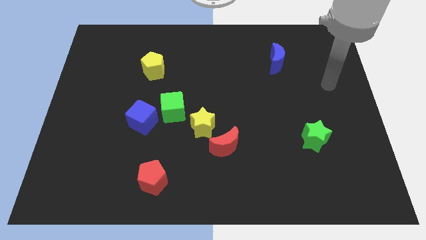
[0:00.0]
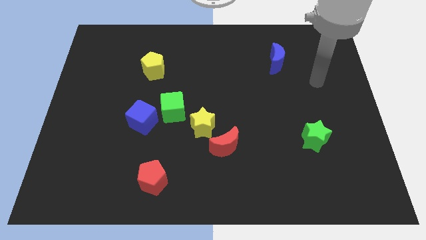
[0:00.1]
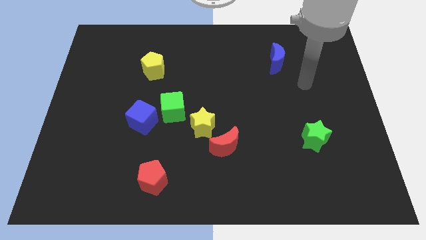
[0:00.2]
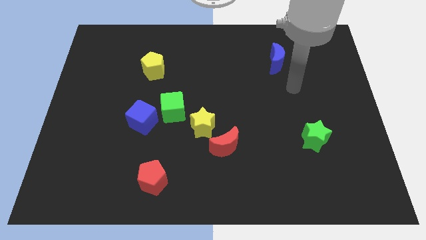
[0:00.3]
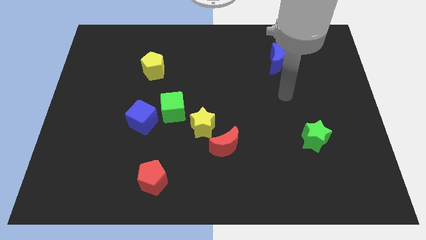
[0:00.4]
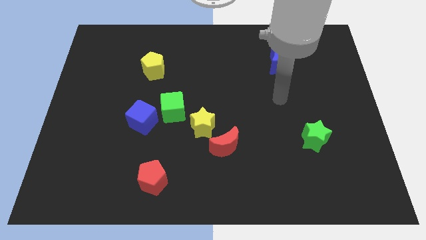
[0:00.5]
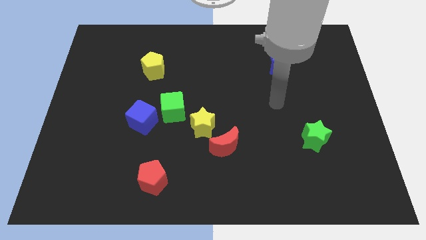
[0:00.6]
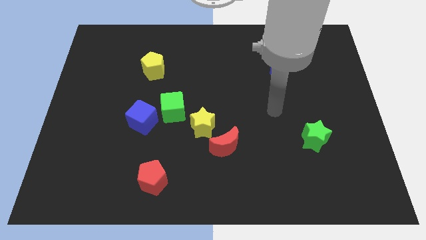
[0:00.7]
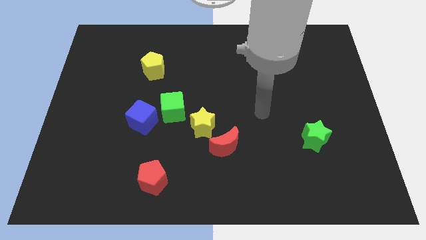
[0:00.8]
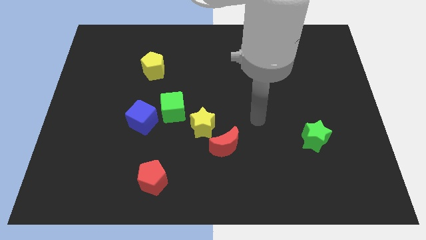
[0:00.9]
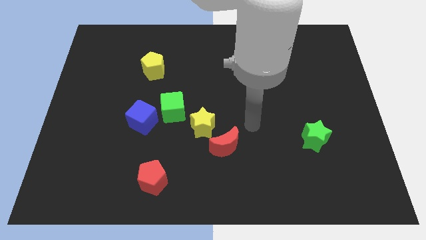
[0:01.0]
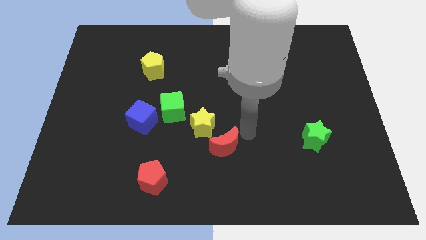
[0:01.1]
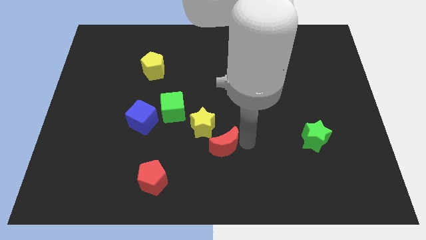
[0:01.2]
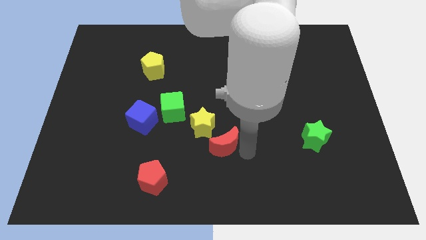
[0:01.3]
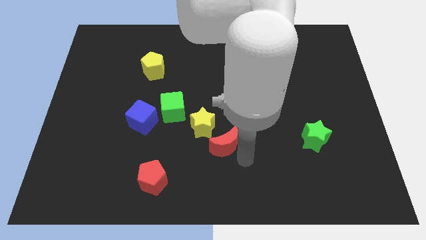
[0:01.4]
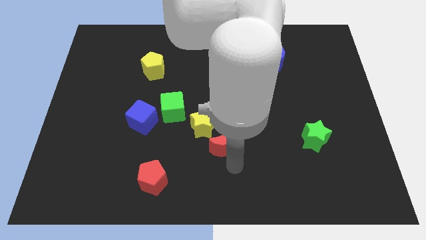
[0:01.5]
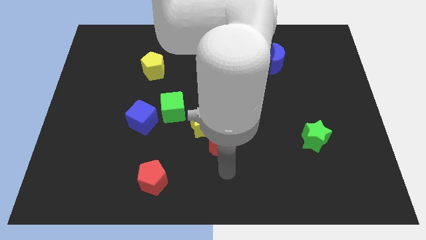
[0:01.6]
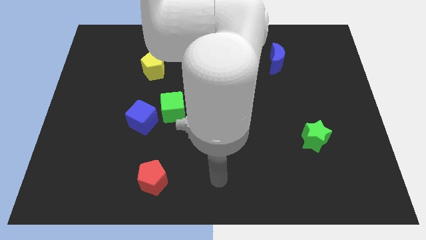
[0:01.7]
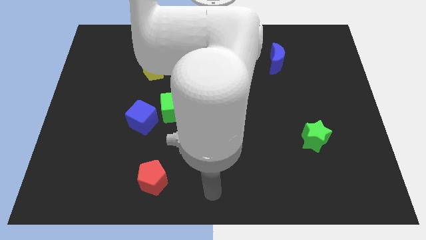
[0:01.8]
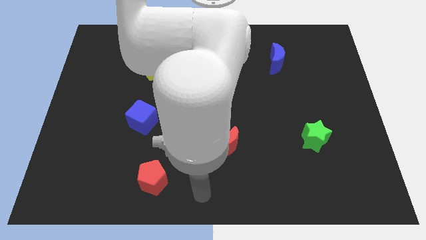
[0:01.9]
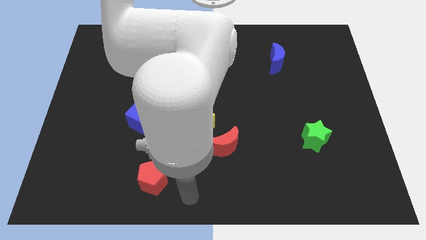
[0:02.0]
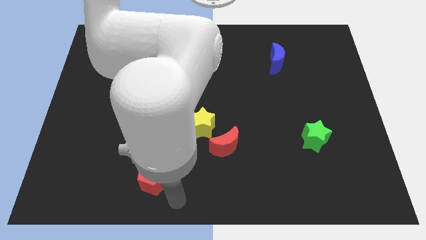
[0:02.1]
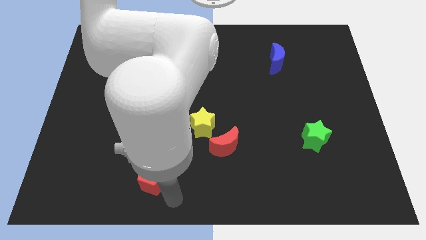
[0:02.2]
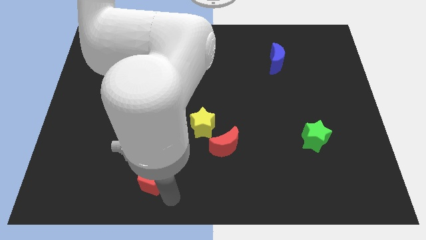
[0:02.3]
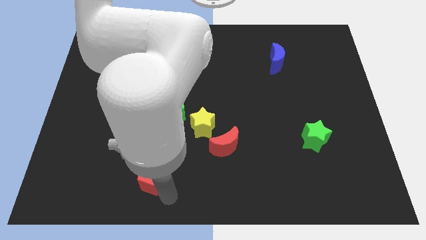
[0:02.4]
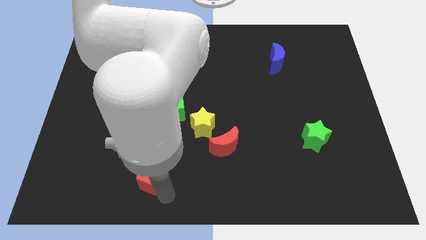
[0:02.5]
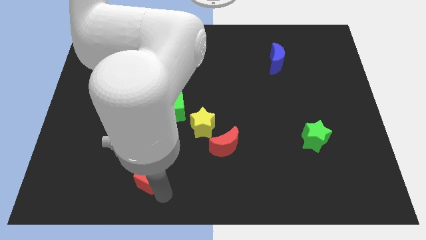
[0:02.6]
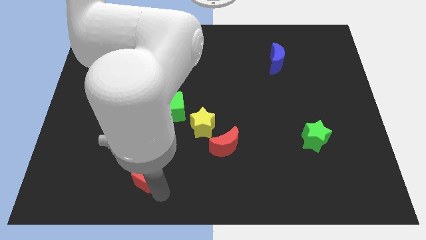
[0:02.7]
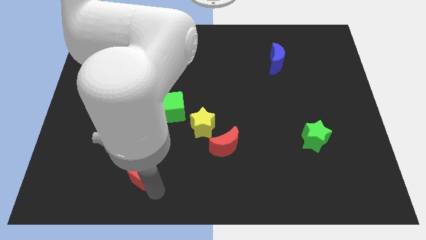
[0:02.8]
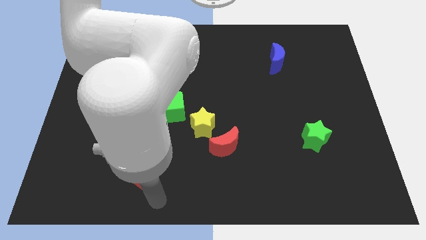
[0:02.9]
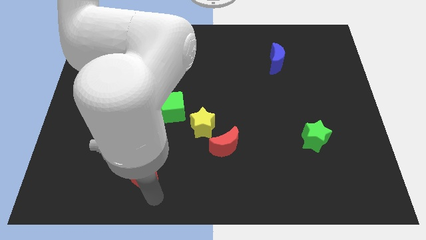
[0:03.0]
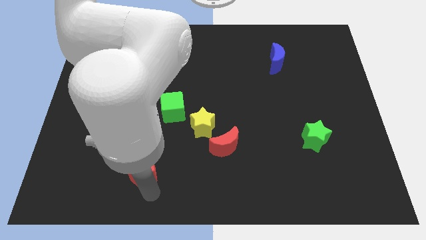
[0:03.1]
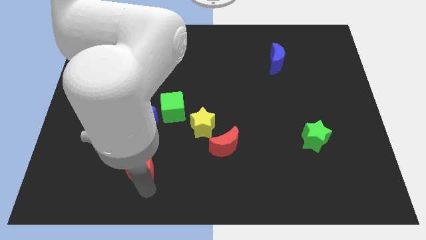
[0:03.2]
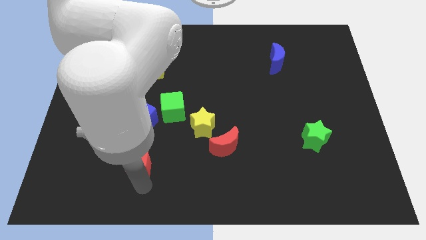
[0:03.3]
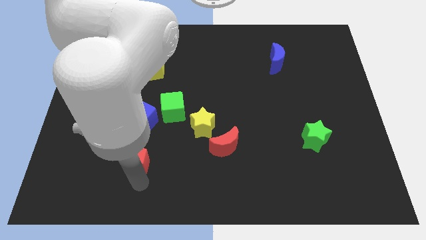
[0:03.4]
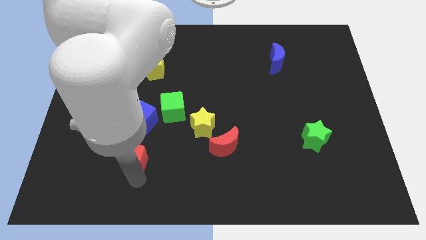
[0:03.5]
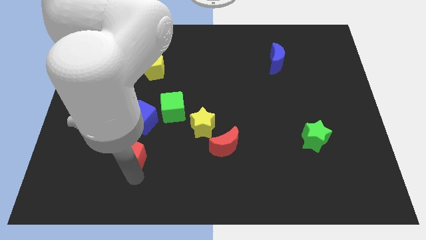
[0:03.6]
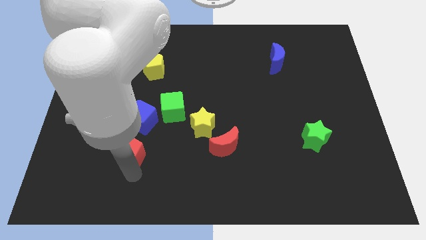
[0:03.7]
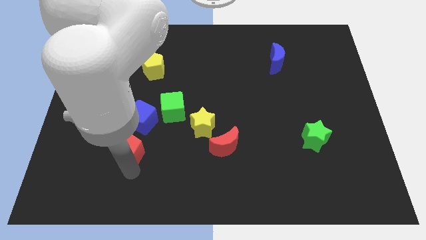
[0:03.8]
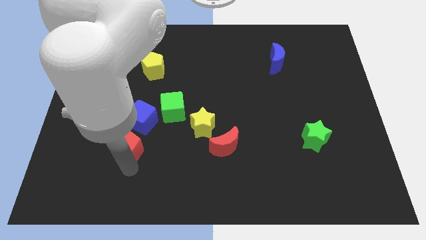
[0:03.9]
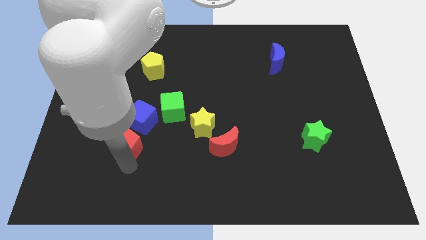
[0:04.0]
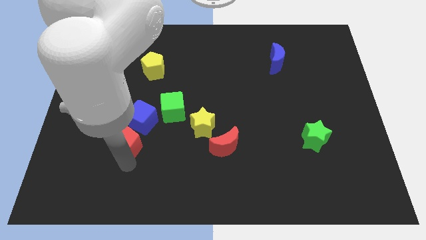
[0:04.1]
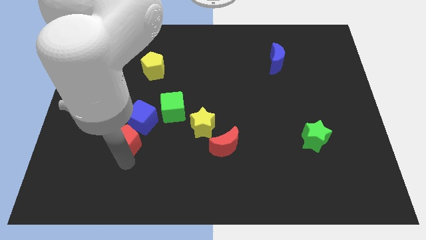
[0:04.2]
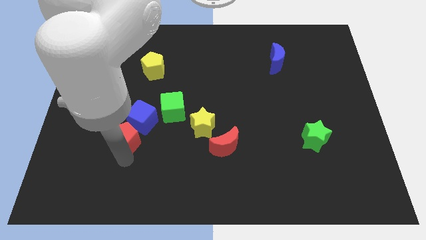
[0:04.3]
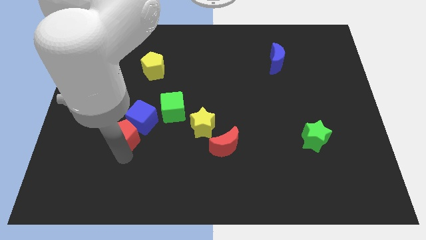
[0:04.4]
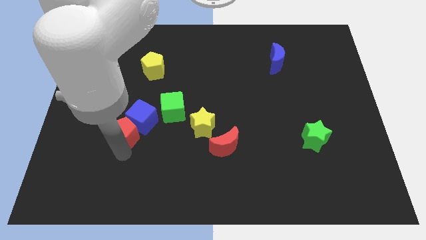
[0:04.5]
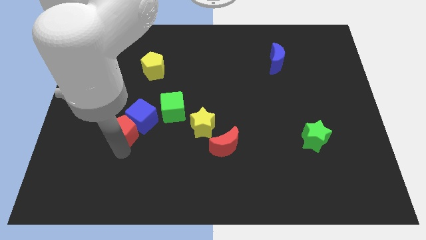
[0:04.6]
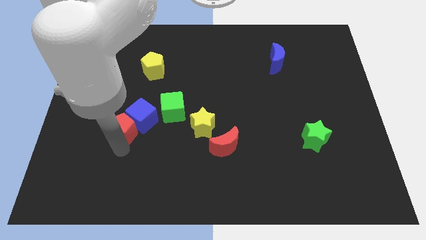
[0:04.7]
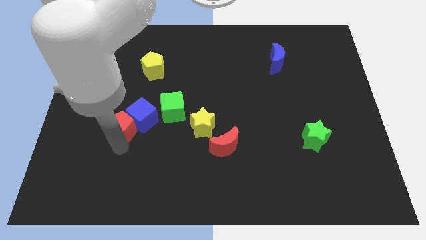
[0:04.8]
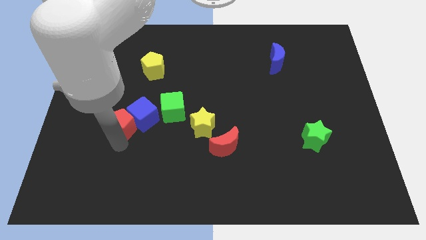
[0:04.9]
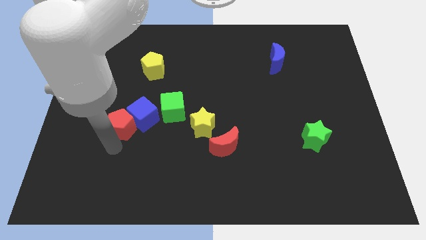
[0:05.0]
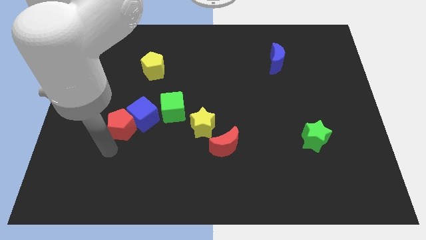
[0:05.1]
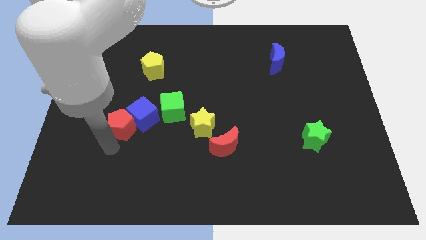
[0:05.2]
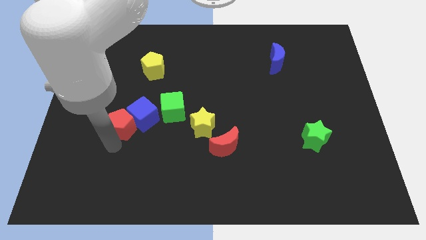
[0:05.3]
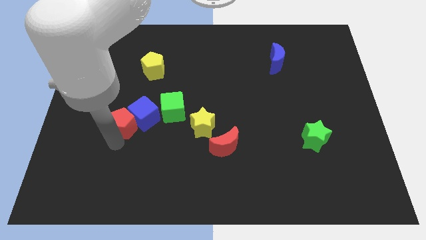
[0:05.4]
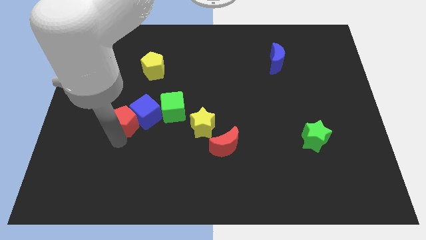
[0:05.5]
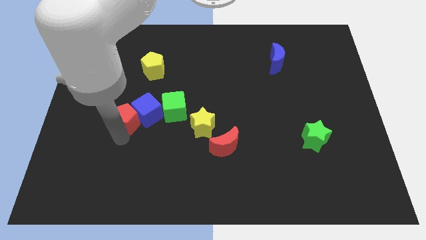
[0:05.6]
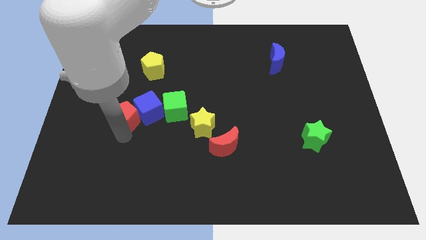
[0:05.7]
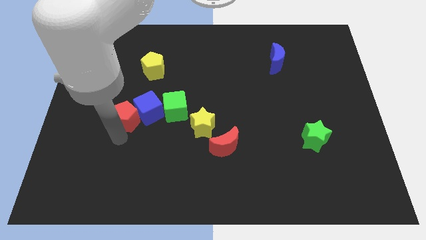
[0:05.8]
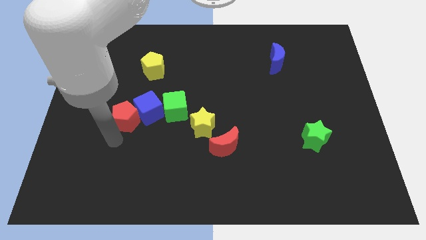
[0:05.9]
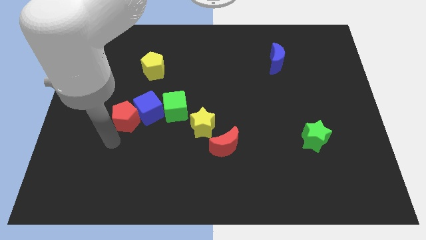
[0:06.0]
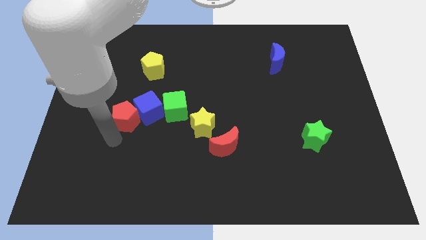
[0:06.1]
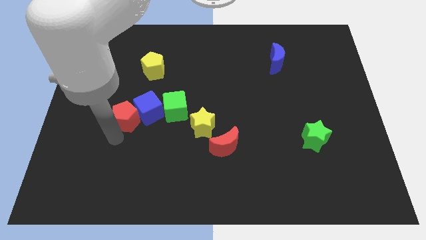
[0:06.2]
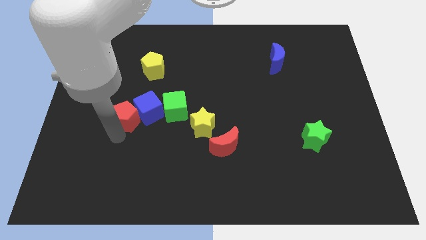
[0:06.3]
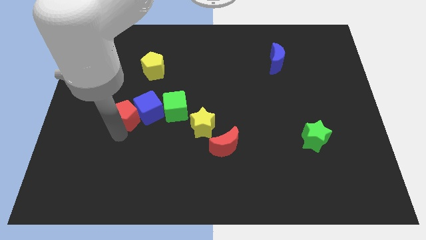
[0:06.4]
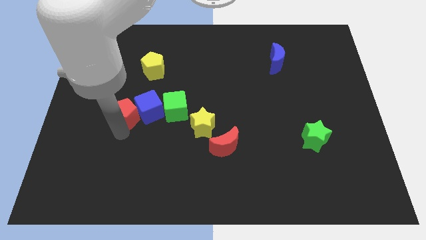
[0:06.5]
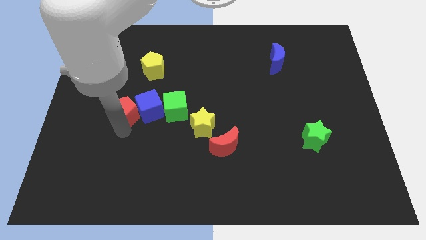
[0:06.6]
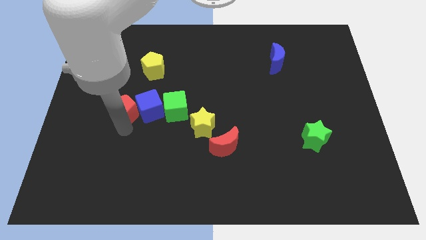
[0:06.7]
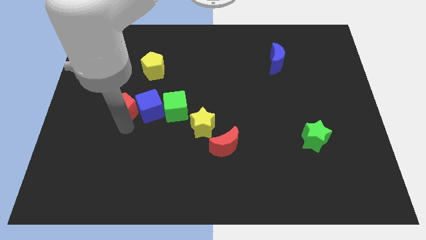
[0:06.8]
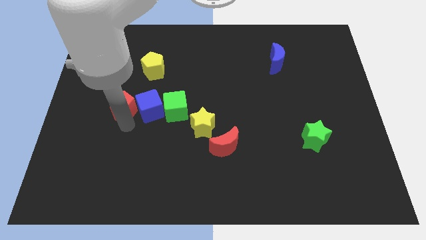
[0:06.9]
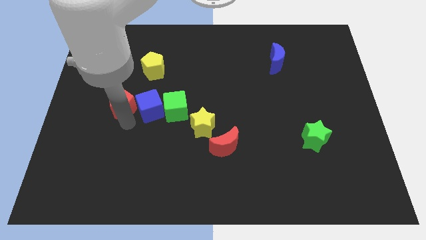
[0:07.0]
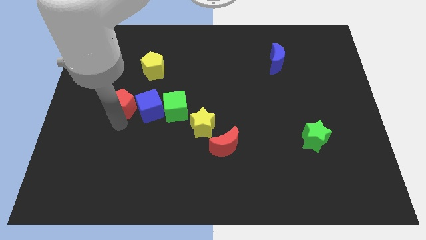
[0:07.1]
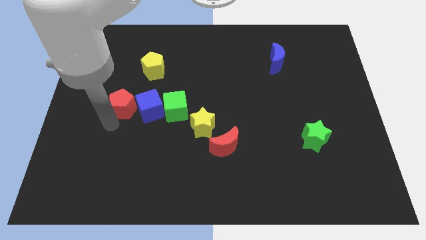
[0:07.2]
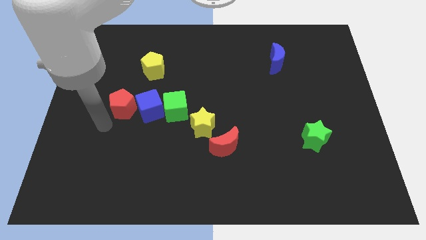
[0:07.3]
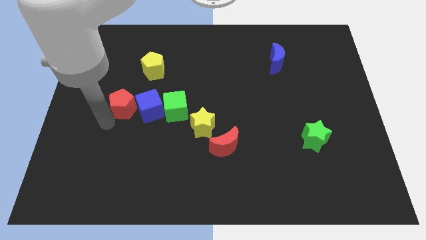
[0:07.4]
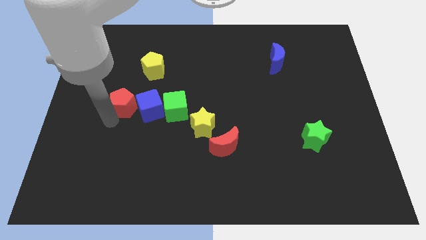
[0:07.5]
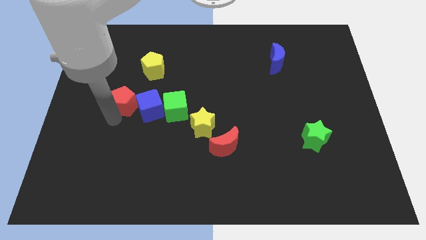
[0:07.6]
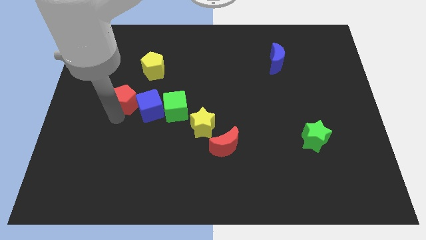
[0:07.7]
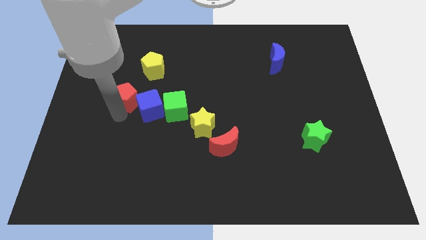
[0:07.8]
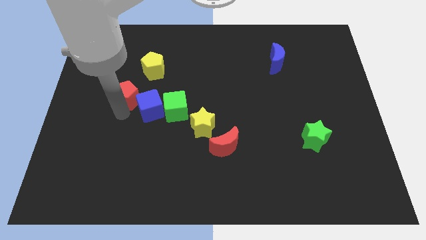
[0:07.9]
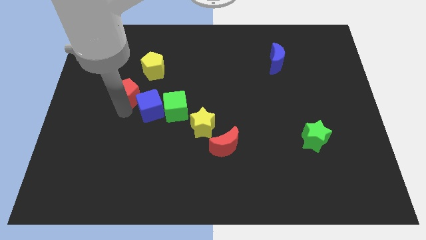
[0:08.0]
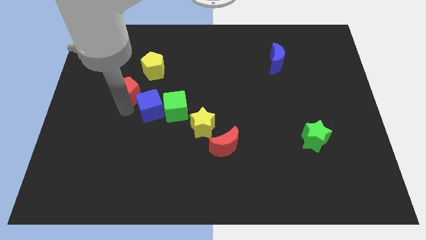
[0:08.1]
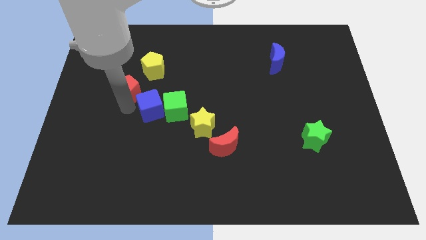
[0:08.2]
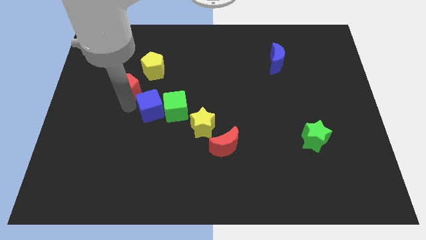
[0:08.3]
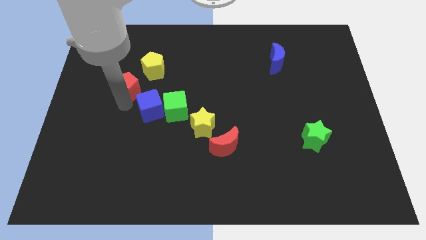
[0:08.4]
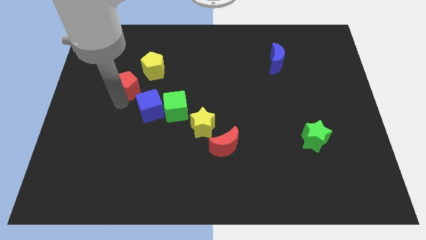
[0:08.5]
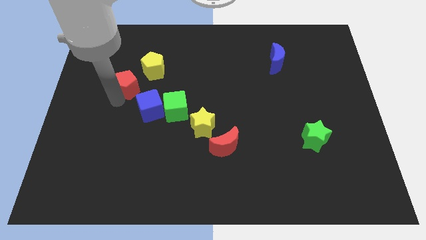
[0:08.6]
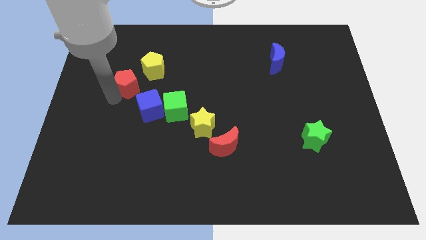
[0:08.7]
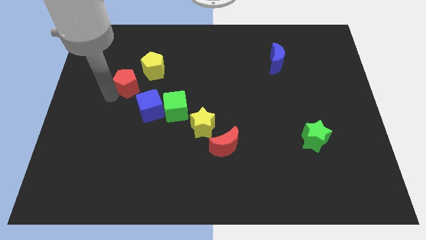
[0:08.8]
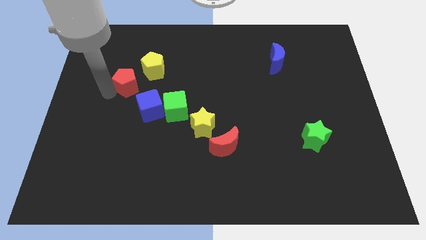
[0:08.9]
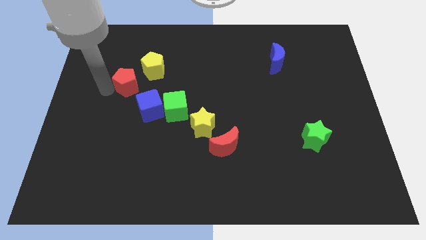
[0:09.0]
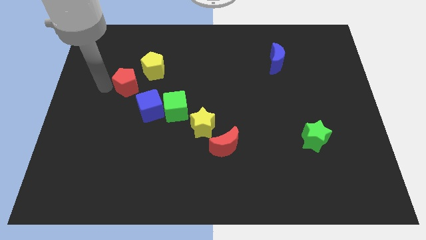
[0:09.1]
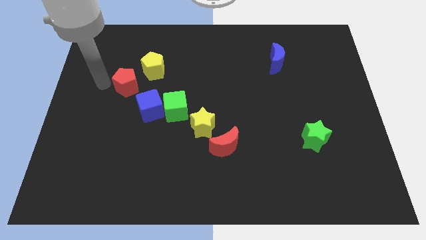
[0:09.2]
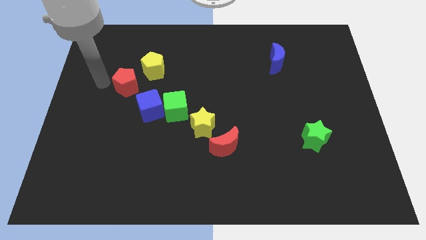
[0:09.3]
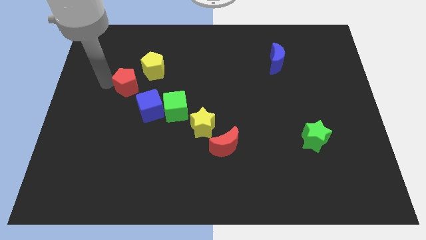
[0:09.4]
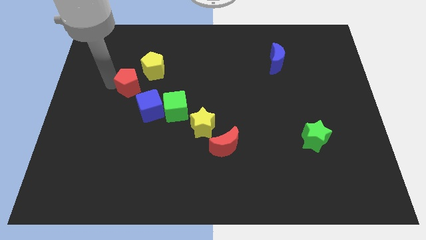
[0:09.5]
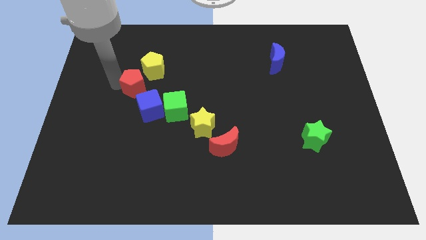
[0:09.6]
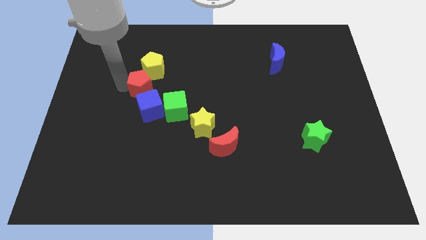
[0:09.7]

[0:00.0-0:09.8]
move the red pentagon to the yellow pentagon
